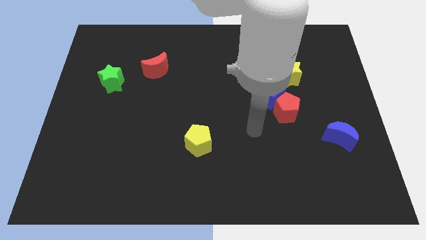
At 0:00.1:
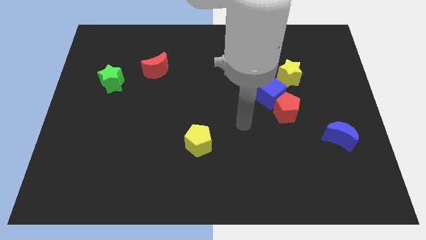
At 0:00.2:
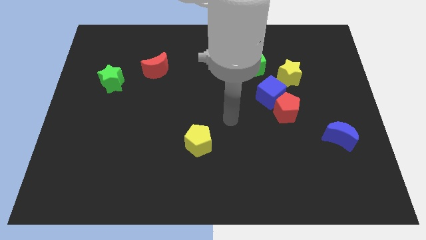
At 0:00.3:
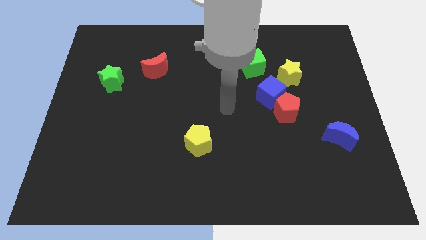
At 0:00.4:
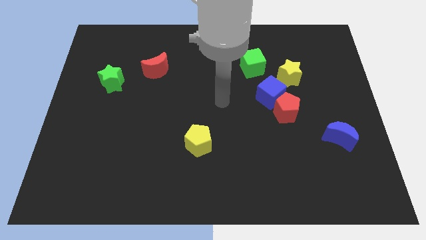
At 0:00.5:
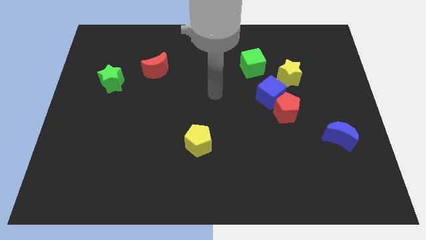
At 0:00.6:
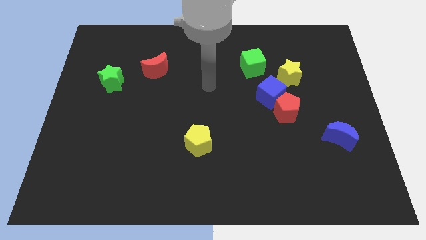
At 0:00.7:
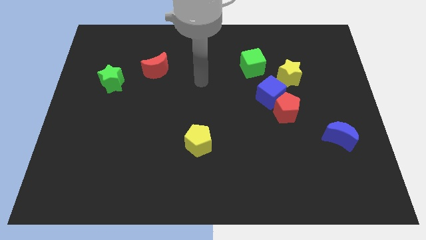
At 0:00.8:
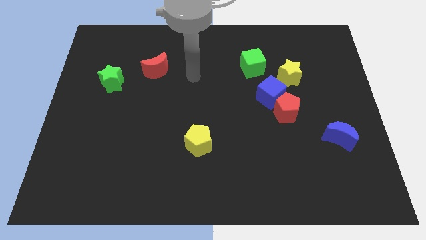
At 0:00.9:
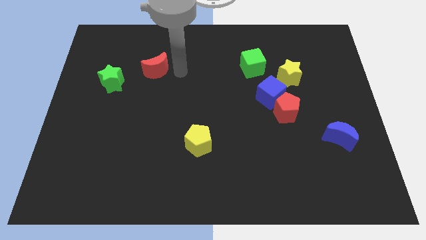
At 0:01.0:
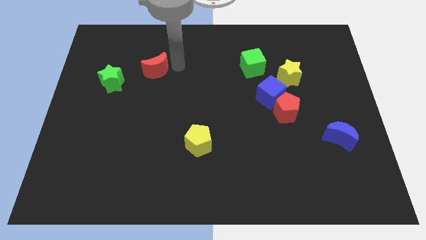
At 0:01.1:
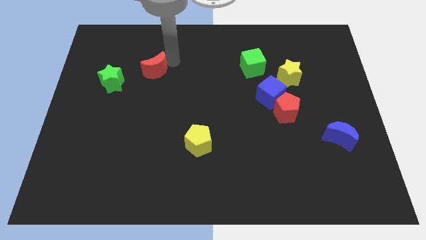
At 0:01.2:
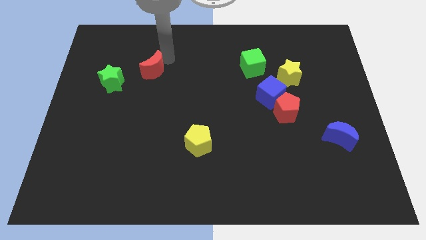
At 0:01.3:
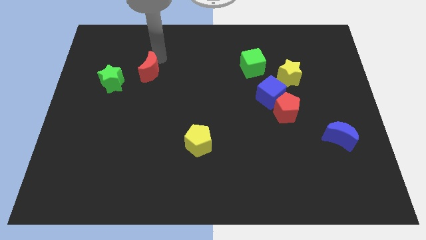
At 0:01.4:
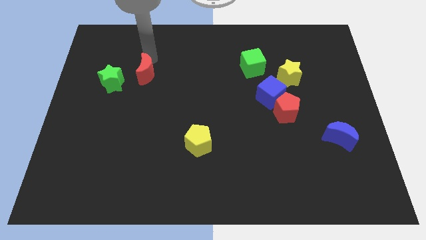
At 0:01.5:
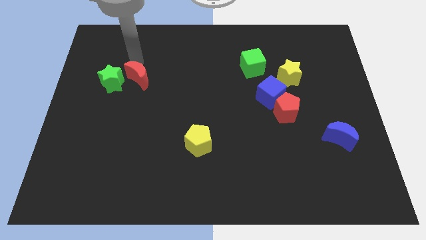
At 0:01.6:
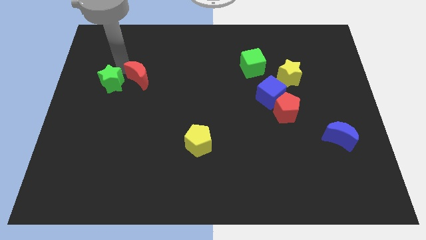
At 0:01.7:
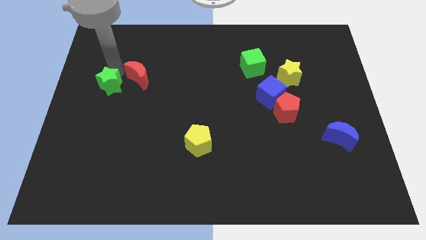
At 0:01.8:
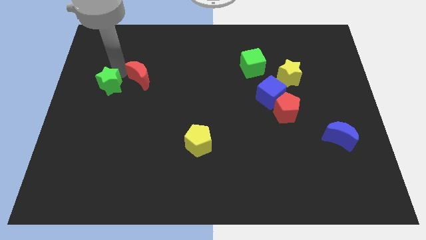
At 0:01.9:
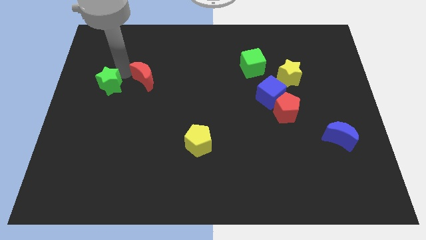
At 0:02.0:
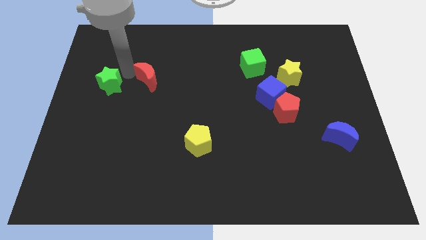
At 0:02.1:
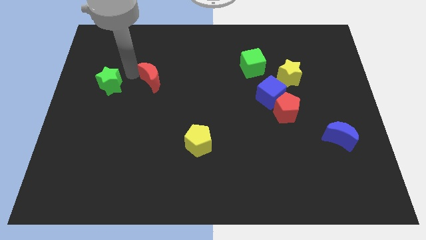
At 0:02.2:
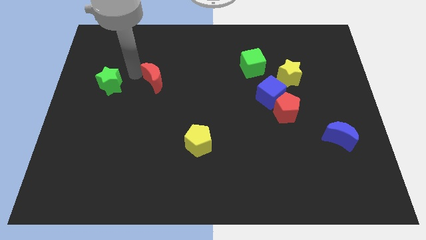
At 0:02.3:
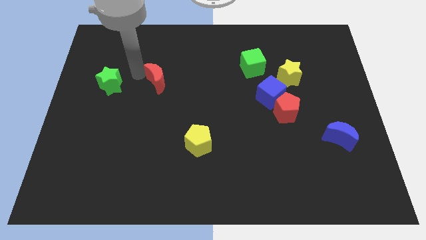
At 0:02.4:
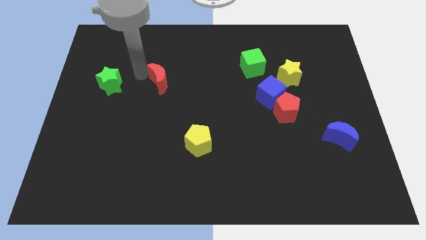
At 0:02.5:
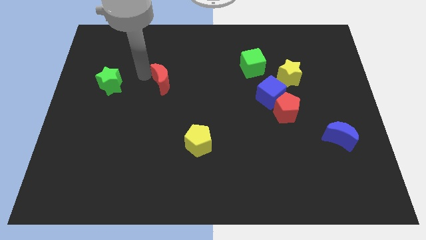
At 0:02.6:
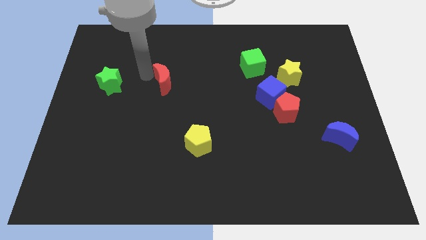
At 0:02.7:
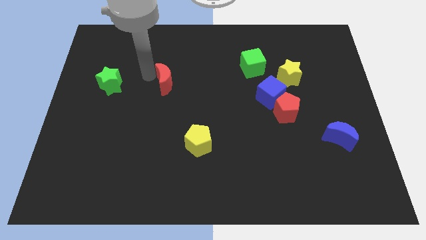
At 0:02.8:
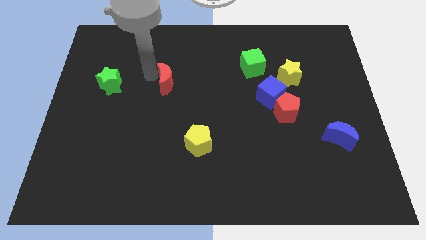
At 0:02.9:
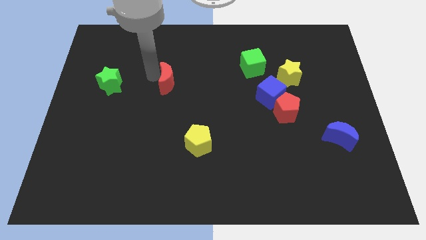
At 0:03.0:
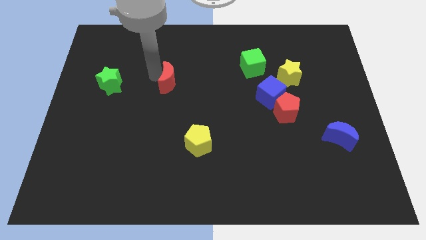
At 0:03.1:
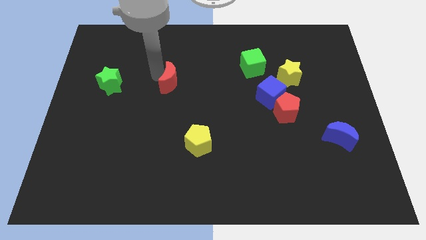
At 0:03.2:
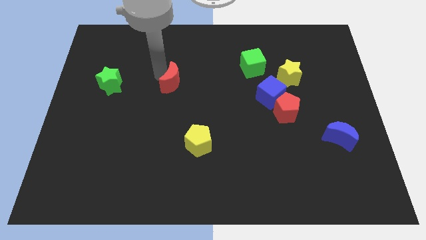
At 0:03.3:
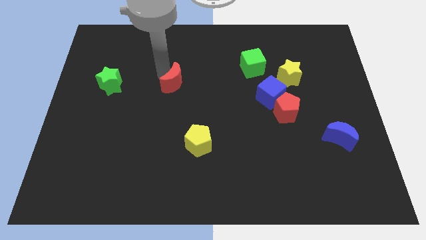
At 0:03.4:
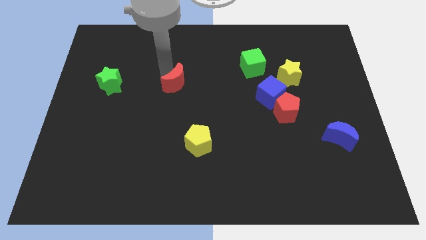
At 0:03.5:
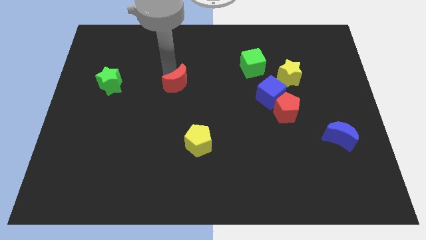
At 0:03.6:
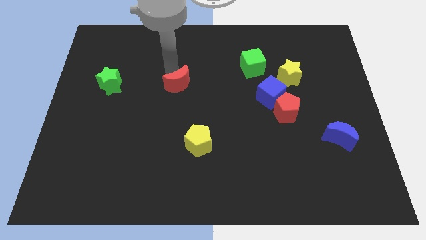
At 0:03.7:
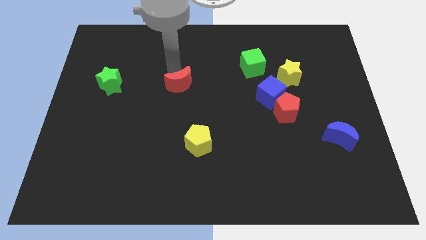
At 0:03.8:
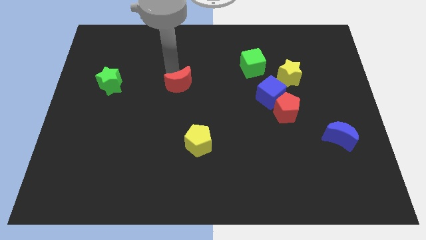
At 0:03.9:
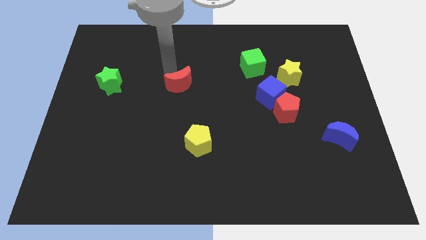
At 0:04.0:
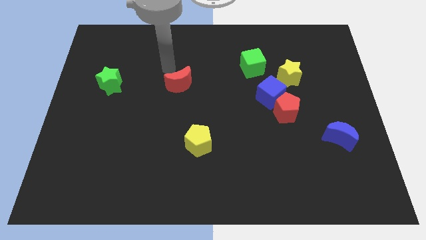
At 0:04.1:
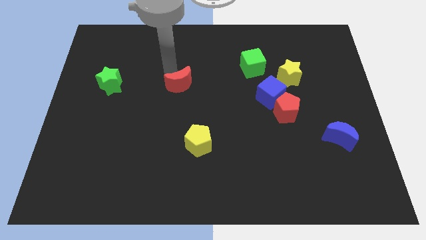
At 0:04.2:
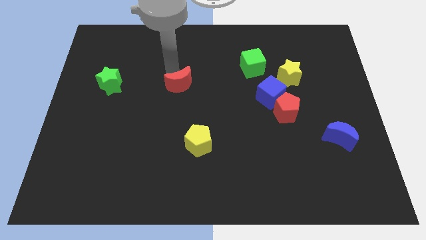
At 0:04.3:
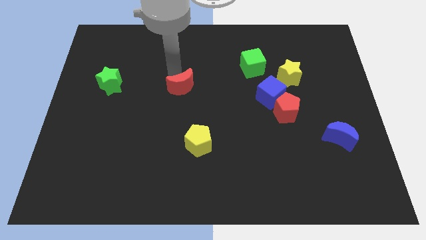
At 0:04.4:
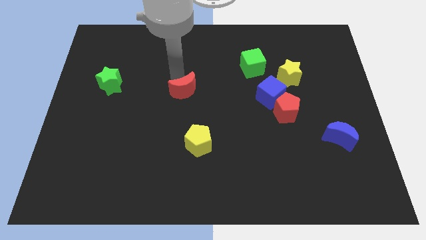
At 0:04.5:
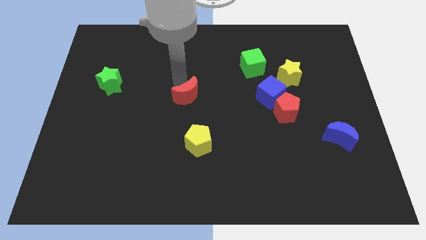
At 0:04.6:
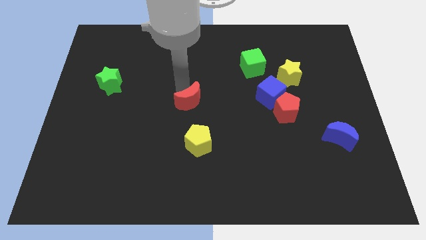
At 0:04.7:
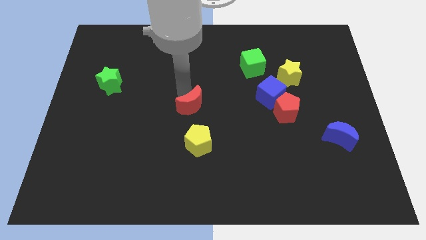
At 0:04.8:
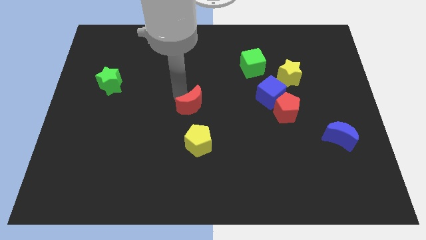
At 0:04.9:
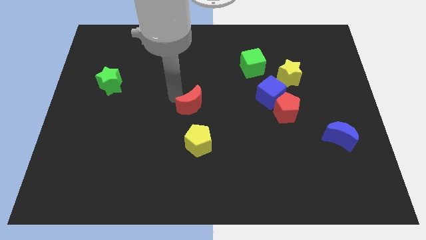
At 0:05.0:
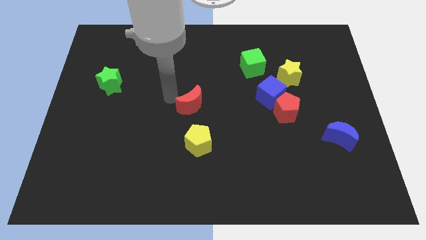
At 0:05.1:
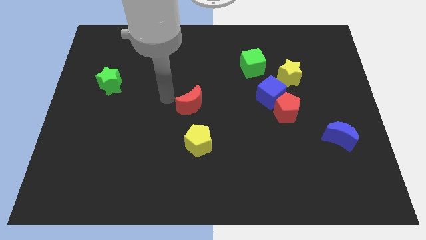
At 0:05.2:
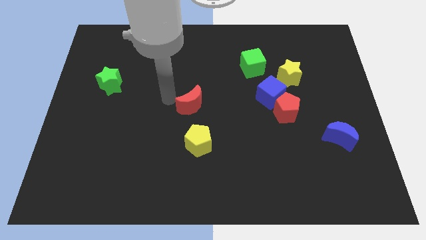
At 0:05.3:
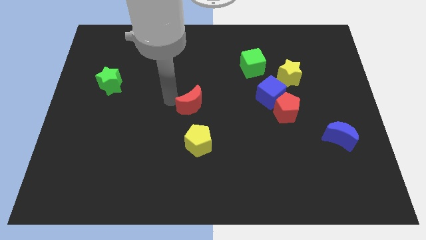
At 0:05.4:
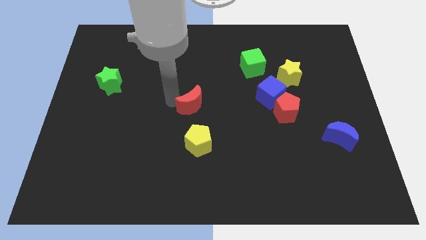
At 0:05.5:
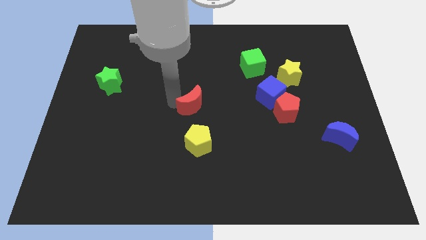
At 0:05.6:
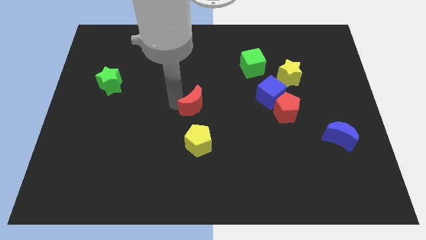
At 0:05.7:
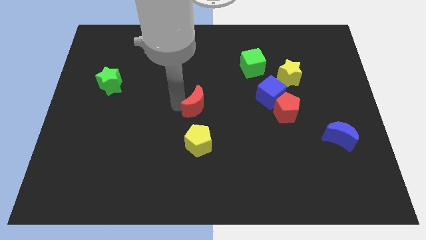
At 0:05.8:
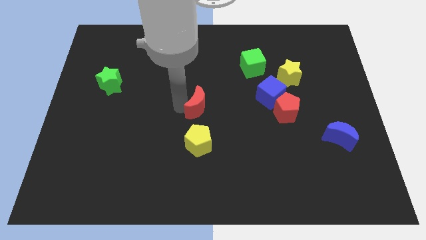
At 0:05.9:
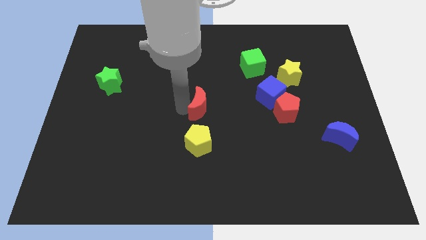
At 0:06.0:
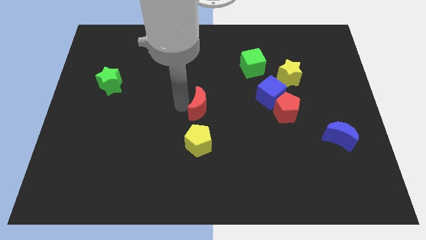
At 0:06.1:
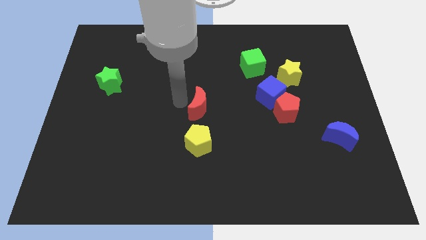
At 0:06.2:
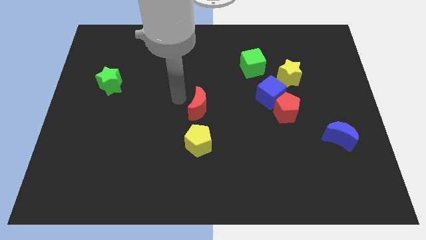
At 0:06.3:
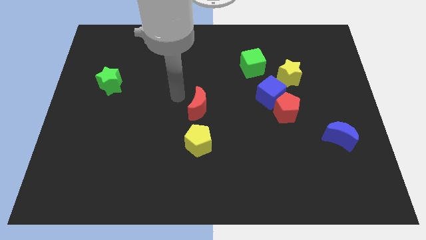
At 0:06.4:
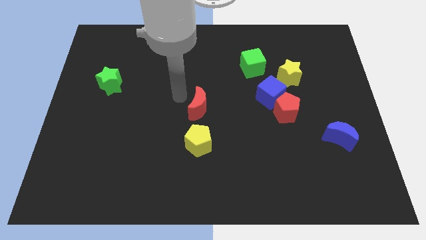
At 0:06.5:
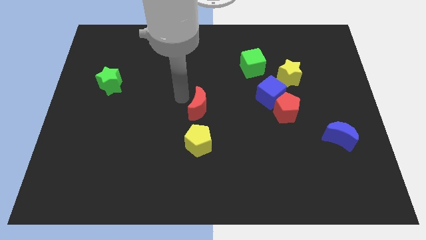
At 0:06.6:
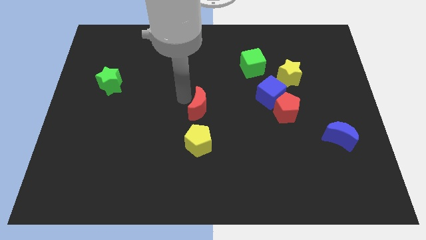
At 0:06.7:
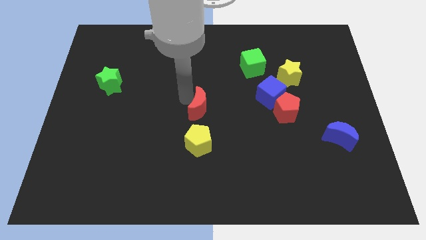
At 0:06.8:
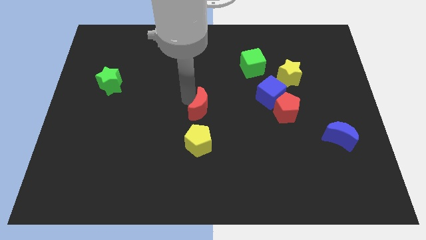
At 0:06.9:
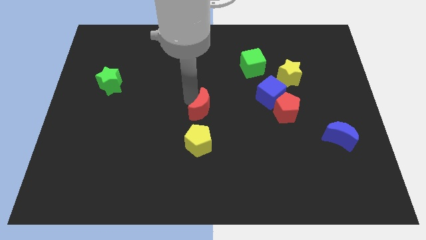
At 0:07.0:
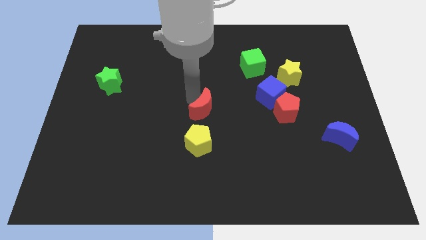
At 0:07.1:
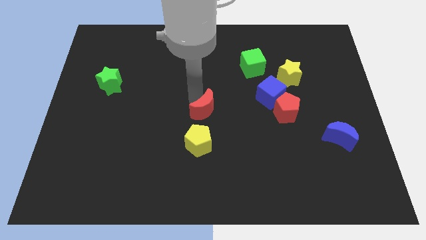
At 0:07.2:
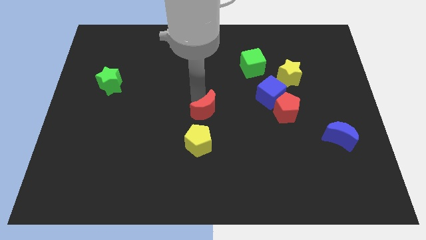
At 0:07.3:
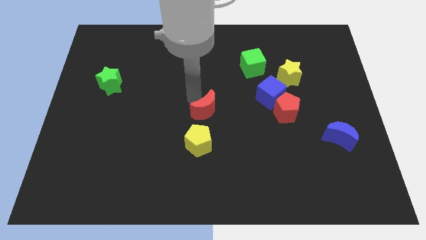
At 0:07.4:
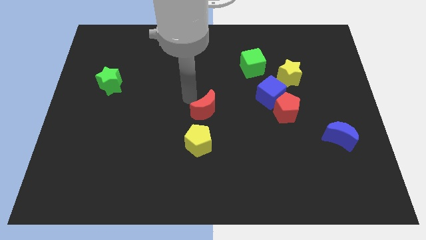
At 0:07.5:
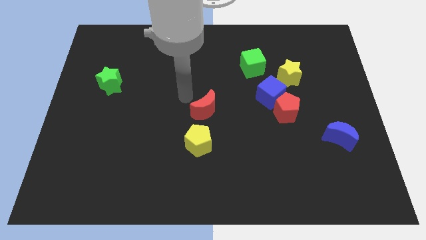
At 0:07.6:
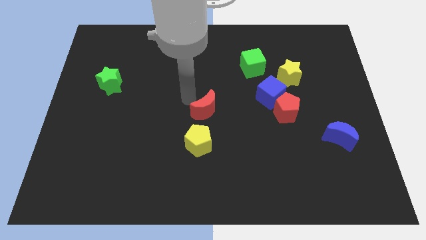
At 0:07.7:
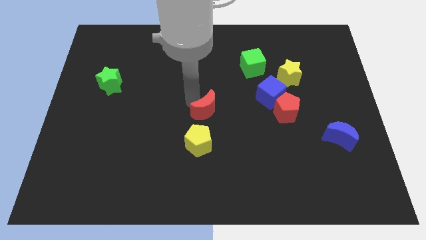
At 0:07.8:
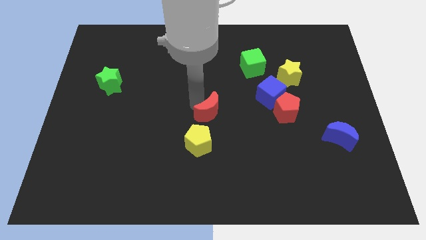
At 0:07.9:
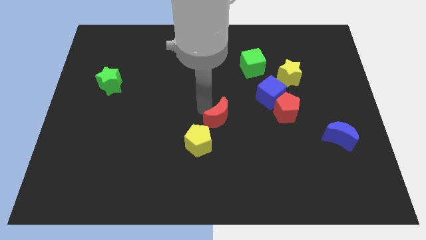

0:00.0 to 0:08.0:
move the red moon diagonally down and to the right

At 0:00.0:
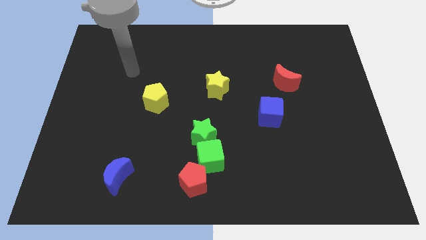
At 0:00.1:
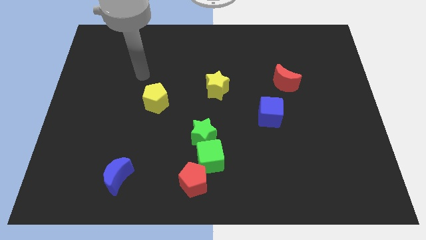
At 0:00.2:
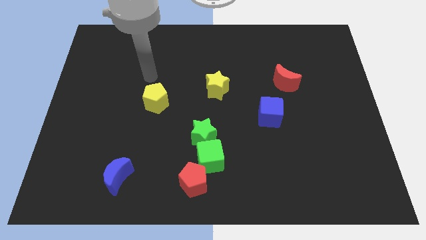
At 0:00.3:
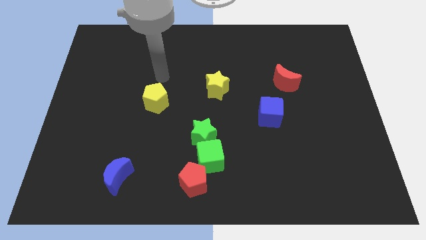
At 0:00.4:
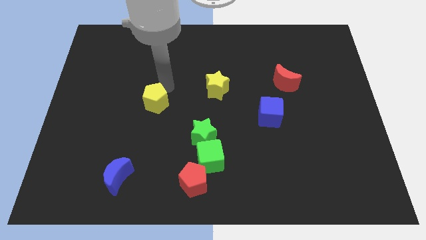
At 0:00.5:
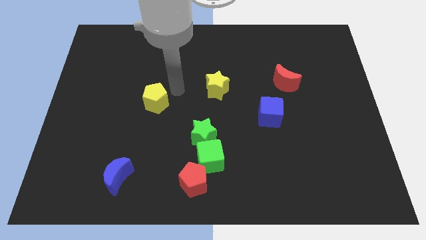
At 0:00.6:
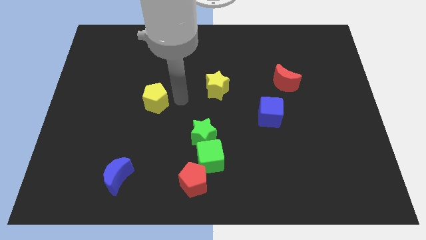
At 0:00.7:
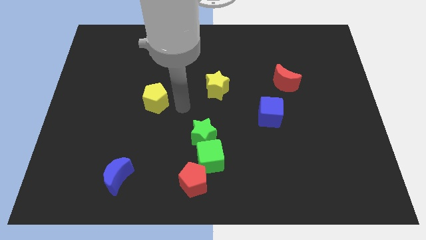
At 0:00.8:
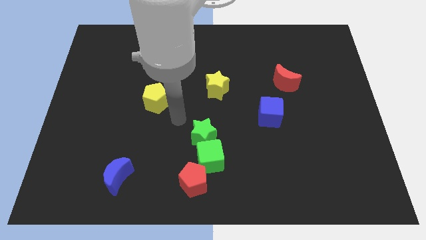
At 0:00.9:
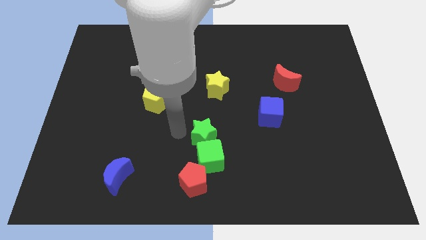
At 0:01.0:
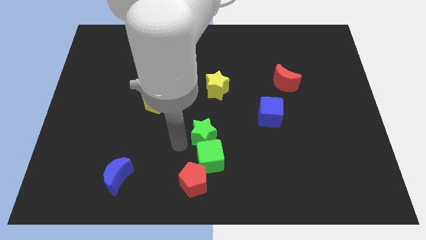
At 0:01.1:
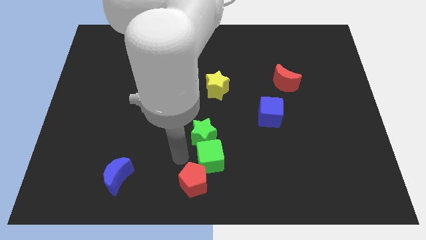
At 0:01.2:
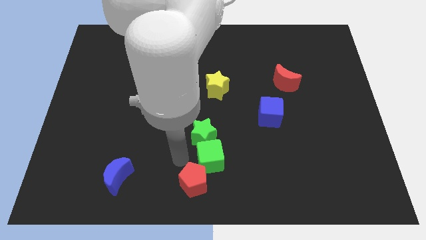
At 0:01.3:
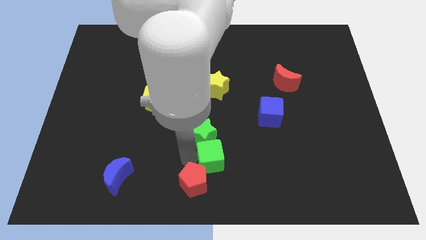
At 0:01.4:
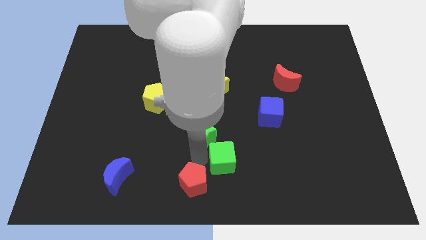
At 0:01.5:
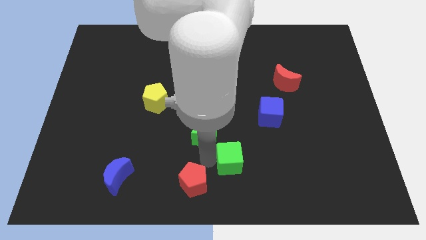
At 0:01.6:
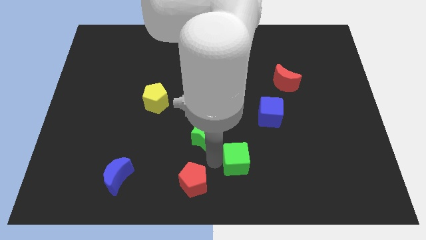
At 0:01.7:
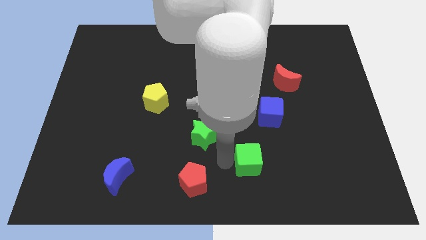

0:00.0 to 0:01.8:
move the green cube slightly to the right
